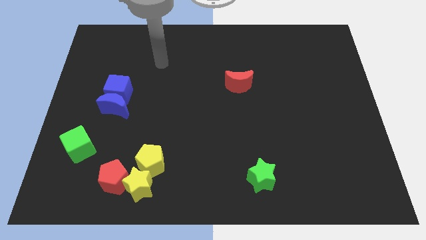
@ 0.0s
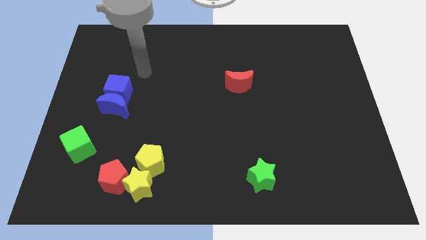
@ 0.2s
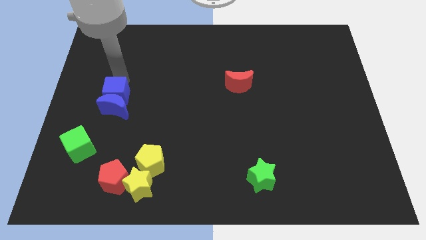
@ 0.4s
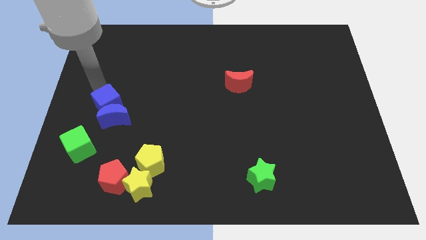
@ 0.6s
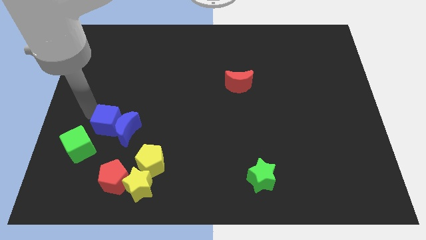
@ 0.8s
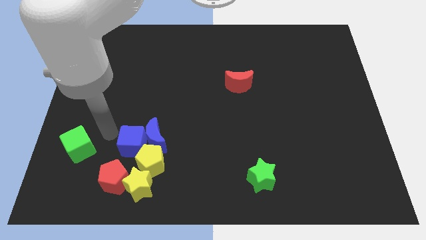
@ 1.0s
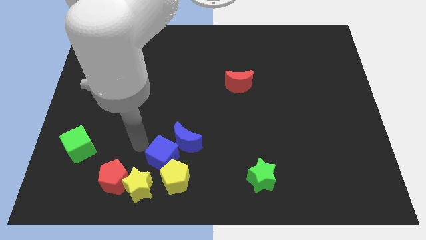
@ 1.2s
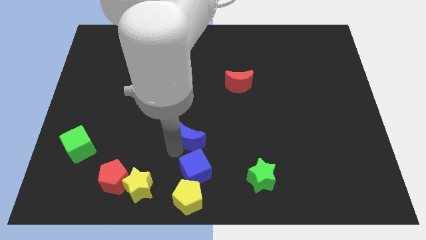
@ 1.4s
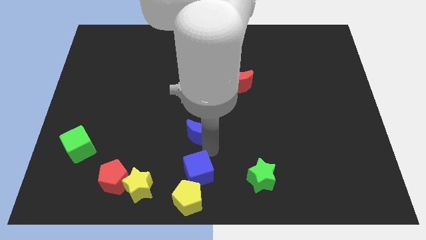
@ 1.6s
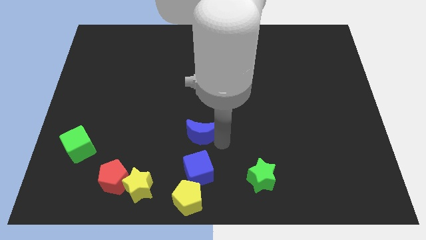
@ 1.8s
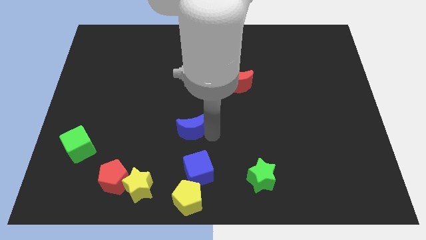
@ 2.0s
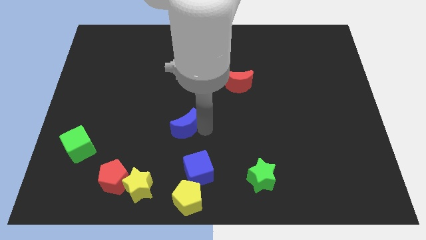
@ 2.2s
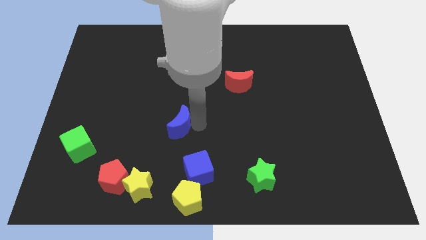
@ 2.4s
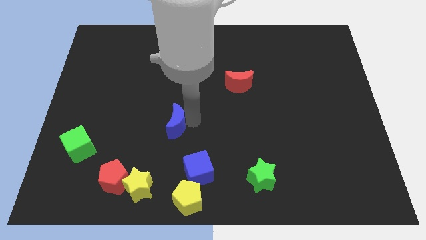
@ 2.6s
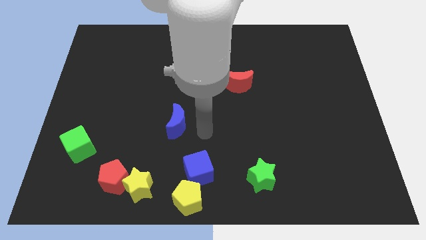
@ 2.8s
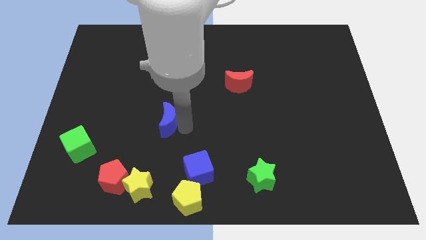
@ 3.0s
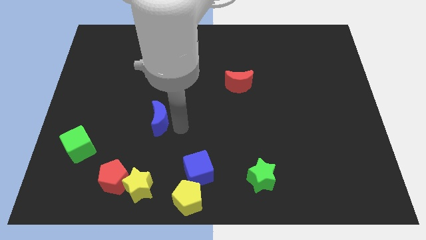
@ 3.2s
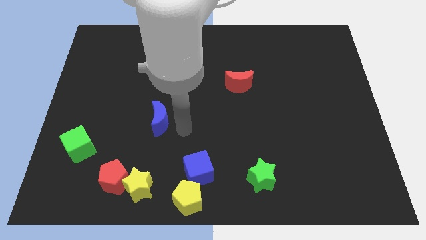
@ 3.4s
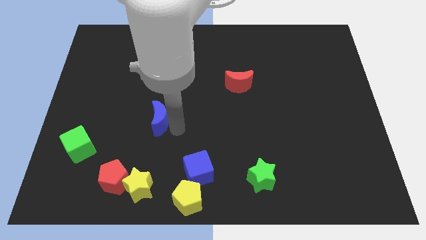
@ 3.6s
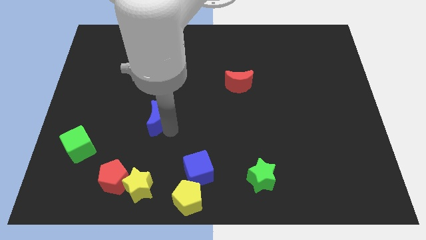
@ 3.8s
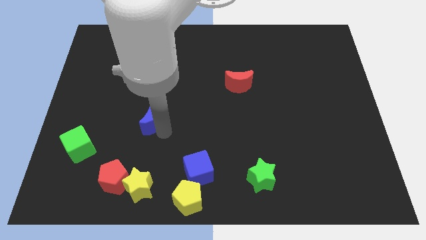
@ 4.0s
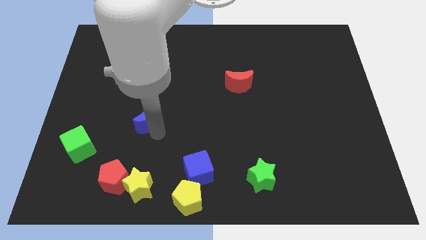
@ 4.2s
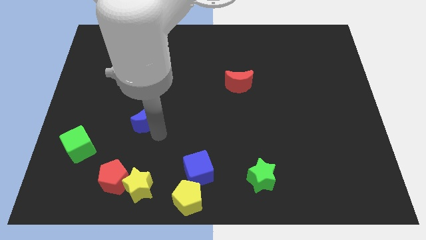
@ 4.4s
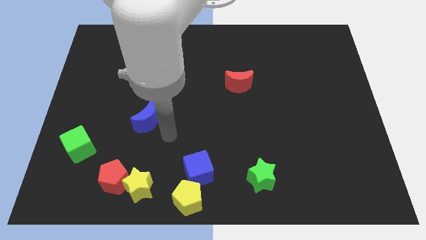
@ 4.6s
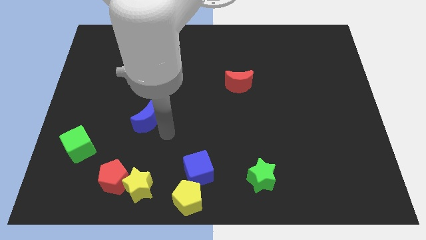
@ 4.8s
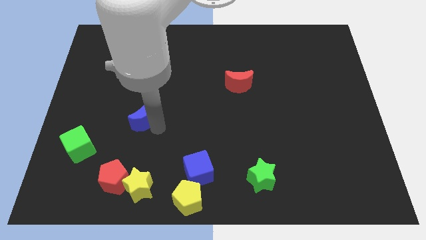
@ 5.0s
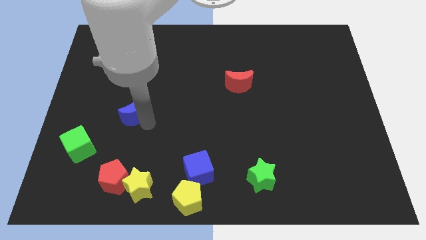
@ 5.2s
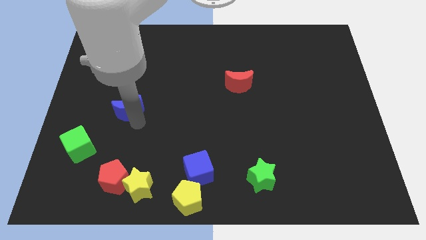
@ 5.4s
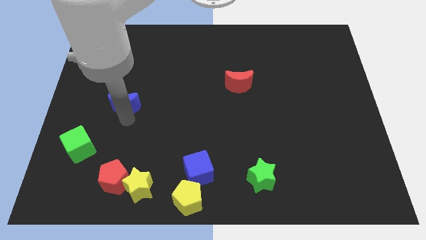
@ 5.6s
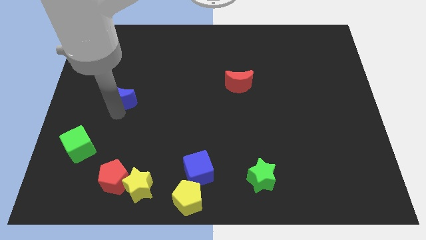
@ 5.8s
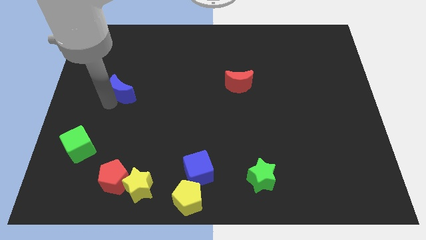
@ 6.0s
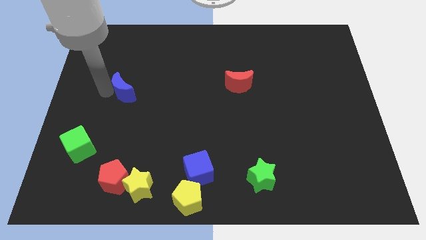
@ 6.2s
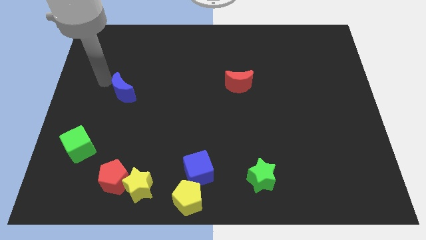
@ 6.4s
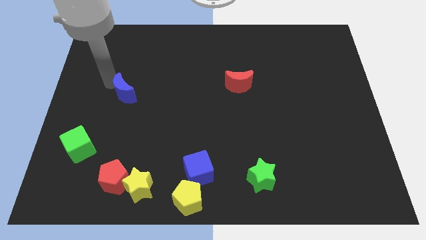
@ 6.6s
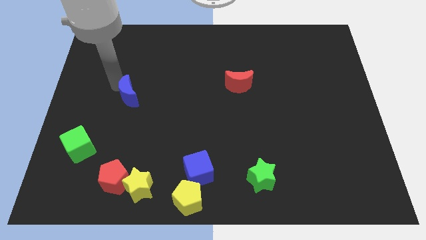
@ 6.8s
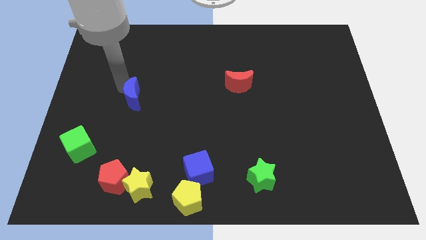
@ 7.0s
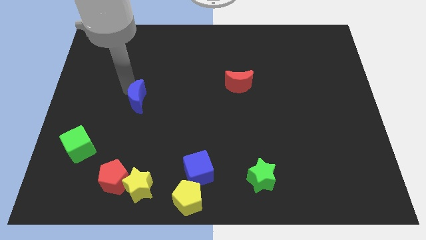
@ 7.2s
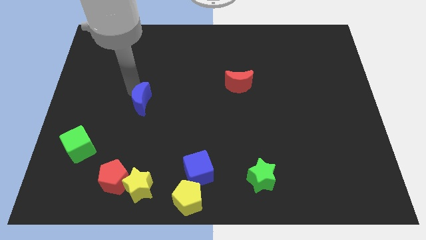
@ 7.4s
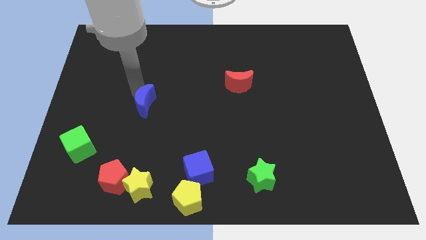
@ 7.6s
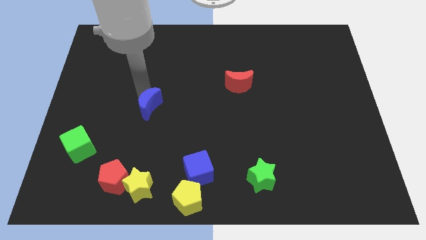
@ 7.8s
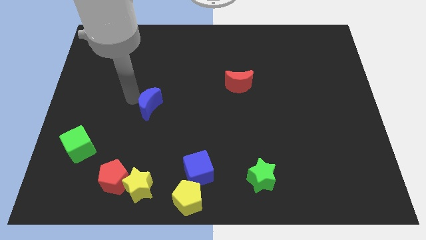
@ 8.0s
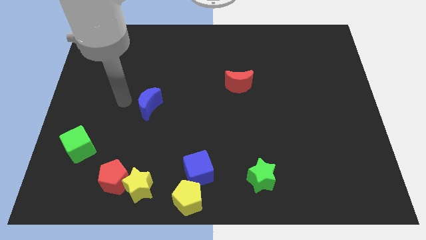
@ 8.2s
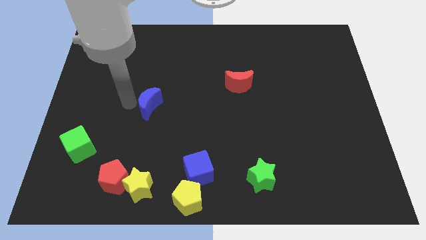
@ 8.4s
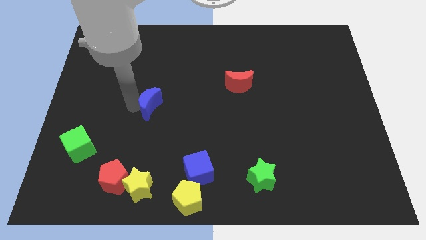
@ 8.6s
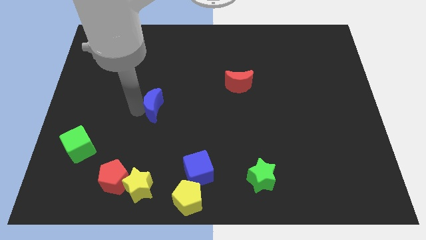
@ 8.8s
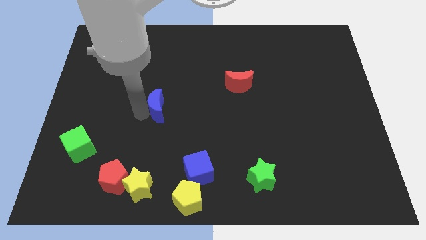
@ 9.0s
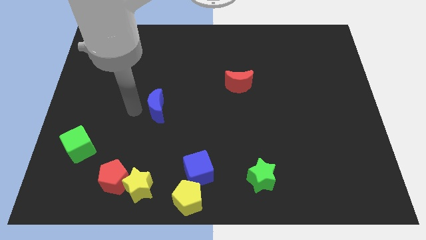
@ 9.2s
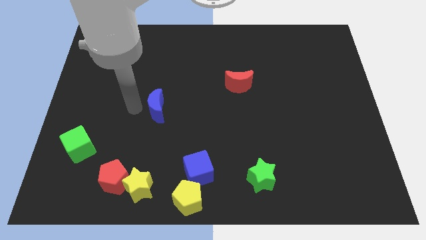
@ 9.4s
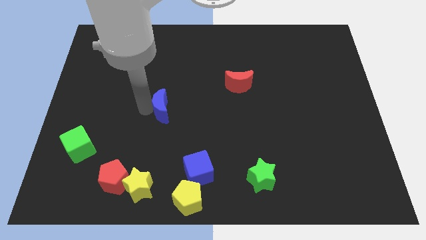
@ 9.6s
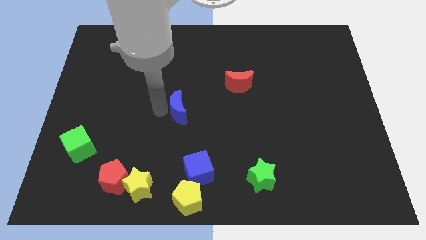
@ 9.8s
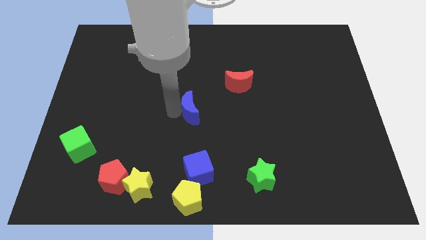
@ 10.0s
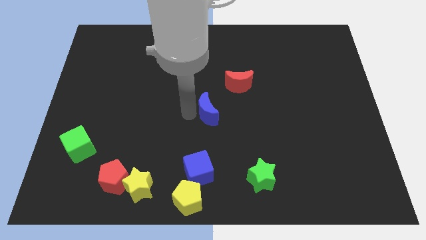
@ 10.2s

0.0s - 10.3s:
slide the blue moon right

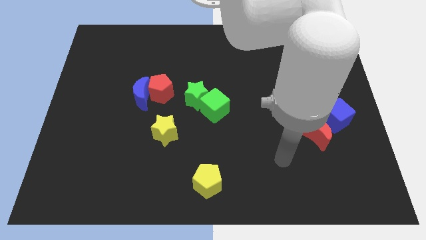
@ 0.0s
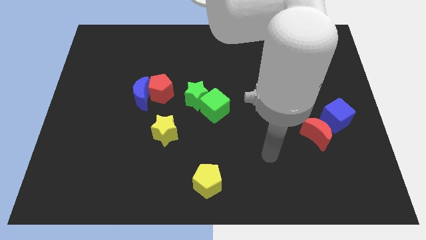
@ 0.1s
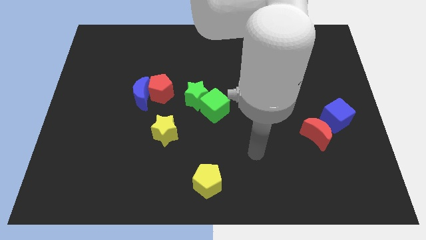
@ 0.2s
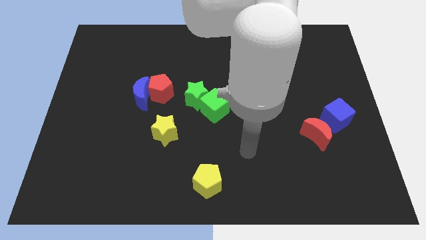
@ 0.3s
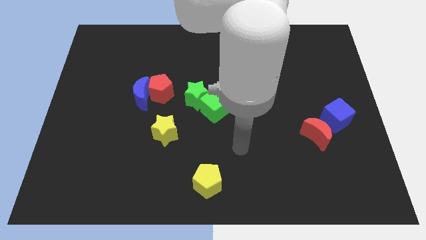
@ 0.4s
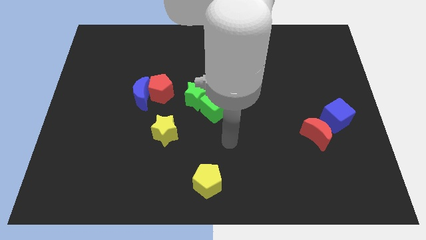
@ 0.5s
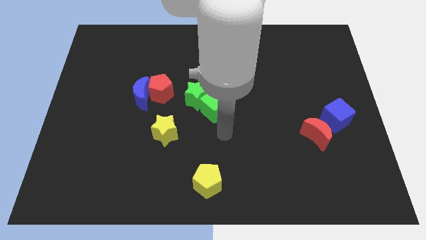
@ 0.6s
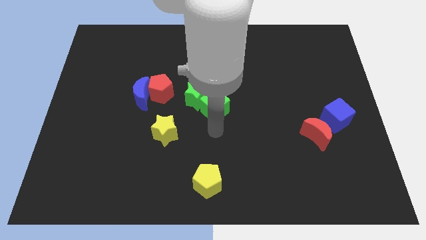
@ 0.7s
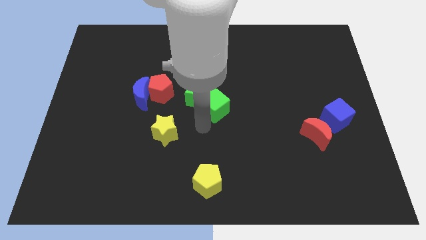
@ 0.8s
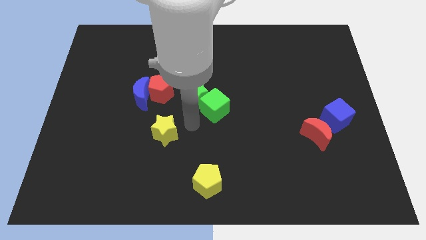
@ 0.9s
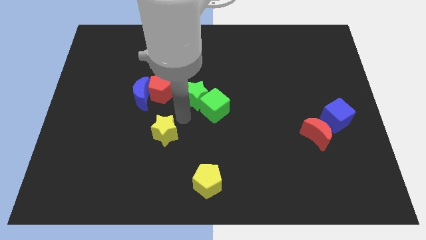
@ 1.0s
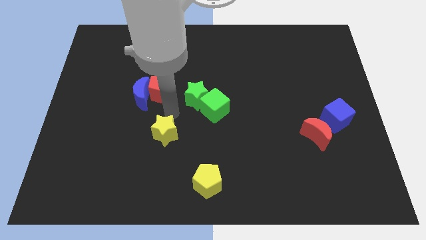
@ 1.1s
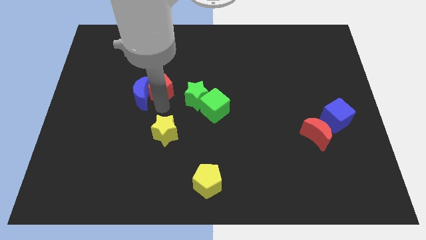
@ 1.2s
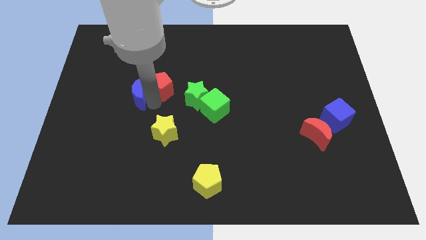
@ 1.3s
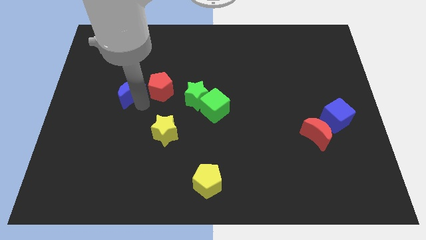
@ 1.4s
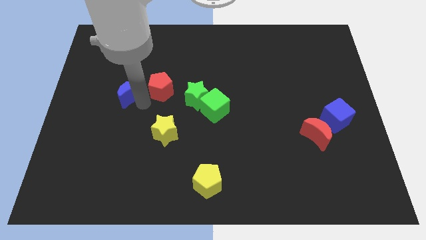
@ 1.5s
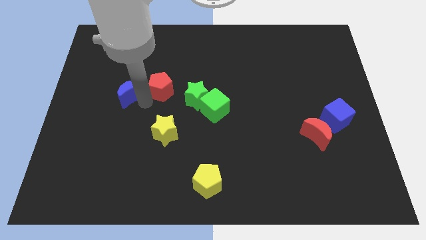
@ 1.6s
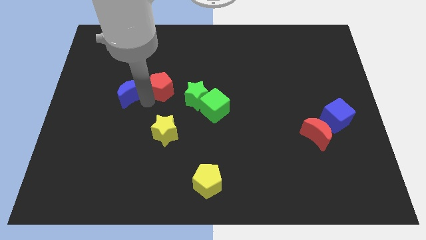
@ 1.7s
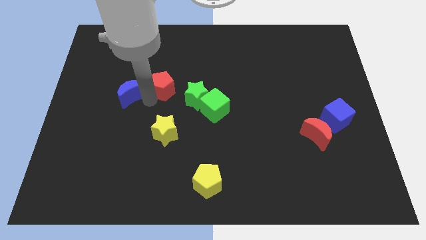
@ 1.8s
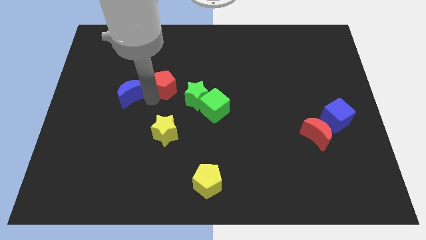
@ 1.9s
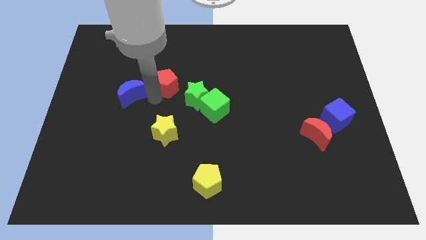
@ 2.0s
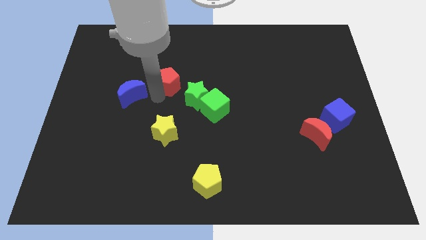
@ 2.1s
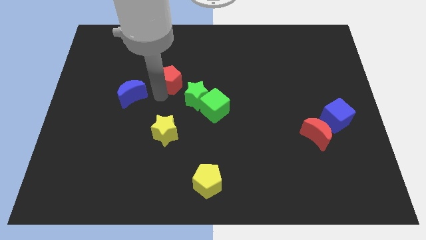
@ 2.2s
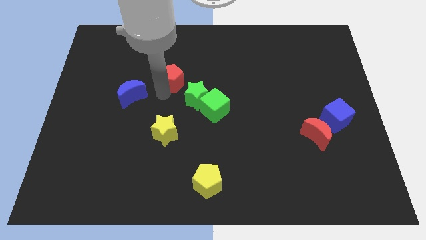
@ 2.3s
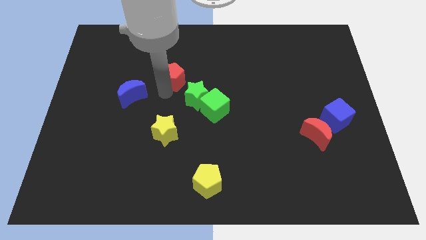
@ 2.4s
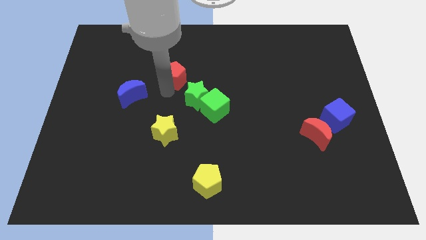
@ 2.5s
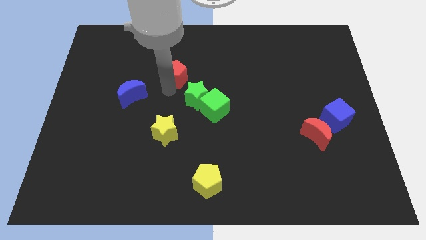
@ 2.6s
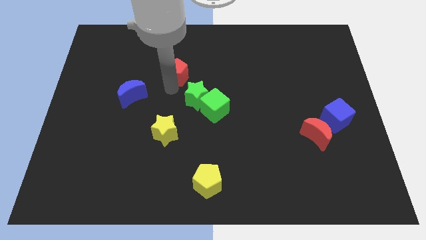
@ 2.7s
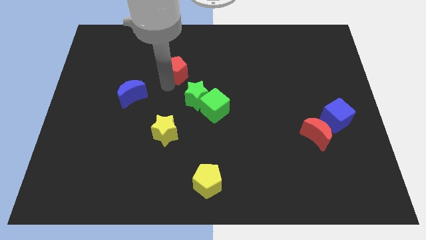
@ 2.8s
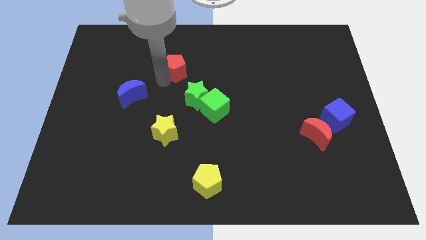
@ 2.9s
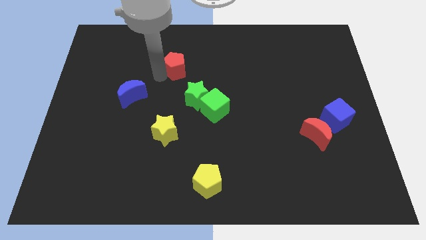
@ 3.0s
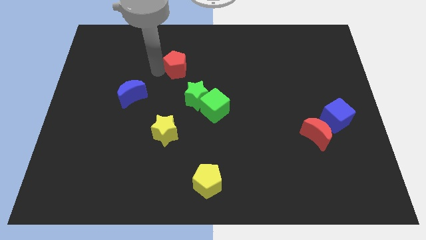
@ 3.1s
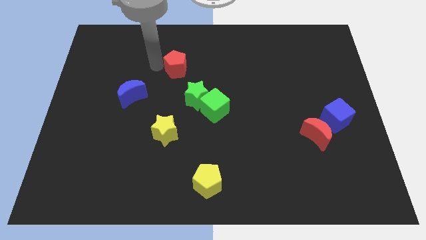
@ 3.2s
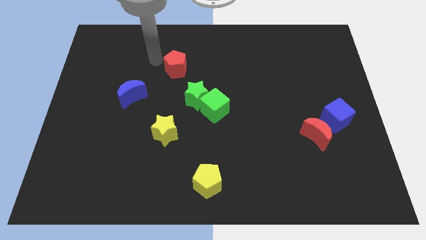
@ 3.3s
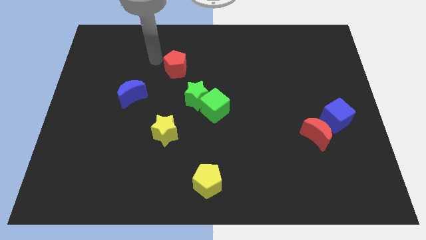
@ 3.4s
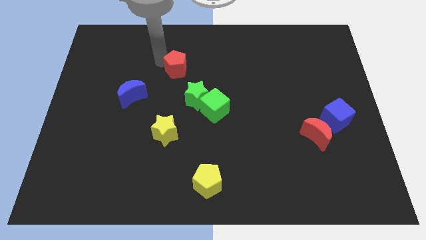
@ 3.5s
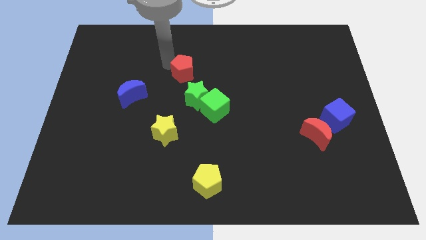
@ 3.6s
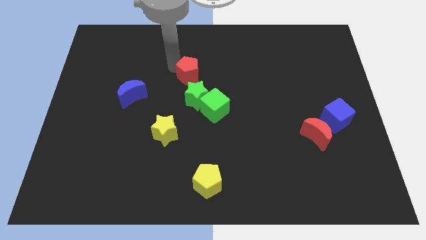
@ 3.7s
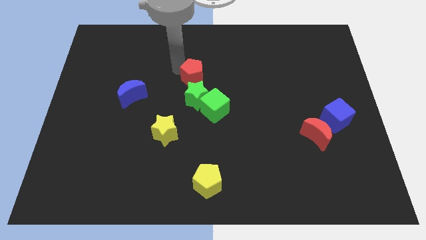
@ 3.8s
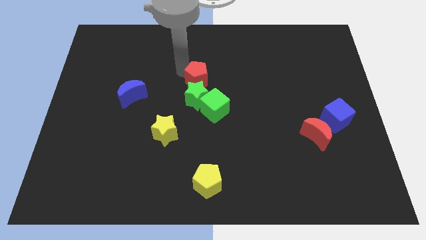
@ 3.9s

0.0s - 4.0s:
move the red pentagon right somewhat
